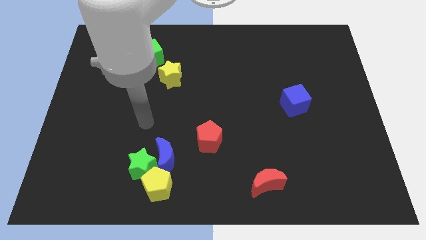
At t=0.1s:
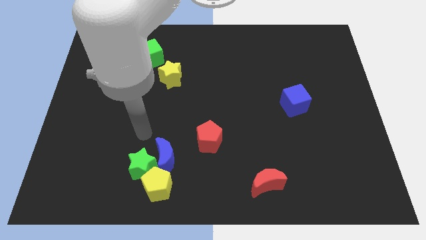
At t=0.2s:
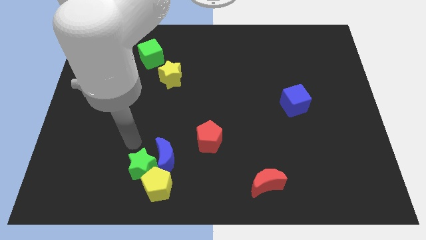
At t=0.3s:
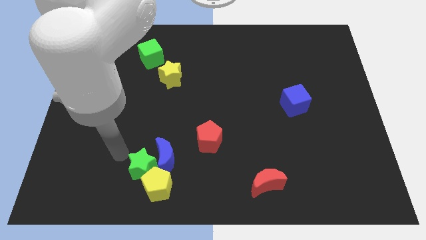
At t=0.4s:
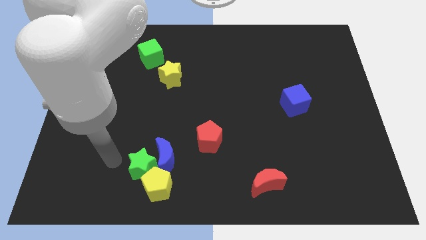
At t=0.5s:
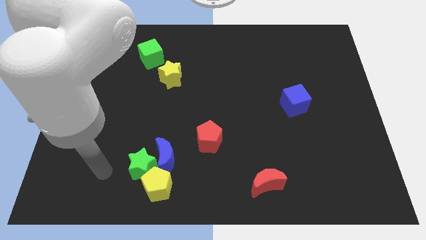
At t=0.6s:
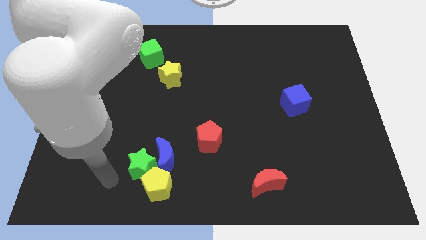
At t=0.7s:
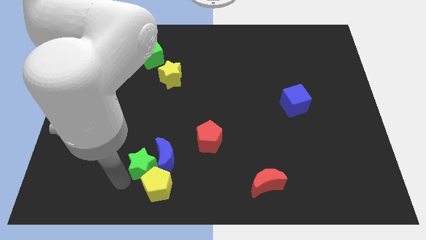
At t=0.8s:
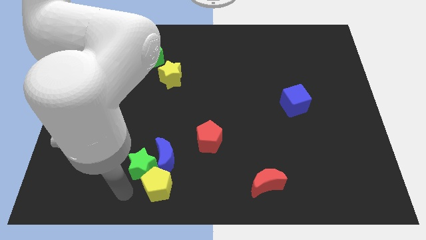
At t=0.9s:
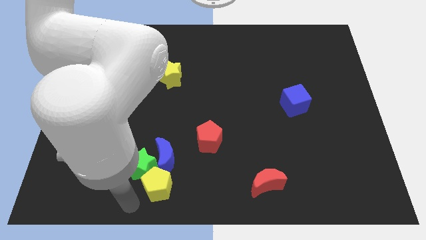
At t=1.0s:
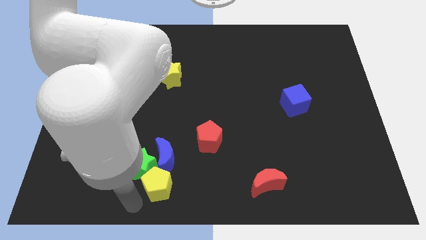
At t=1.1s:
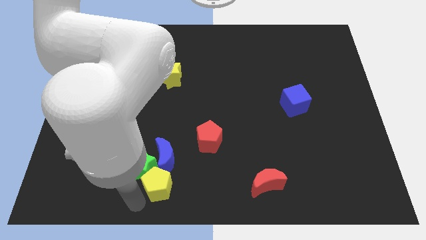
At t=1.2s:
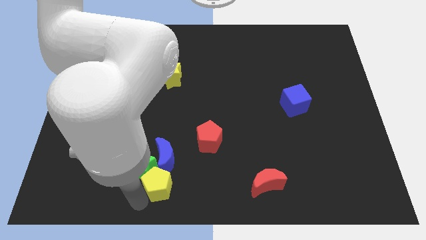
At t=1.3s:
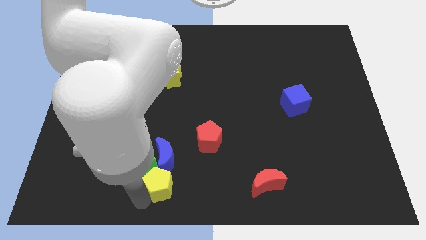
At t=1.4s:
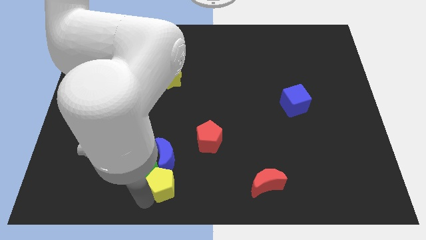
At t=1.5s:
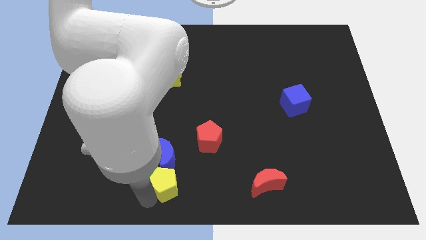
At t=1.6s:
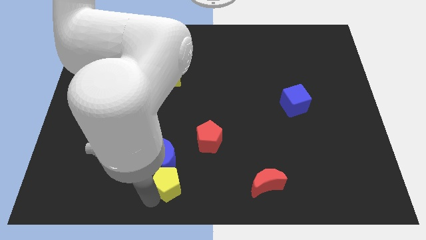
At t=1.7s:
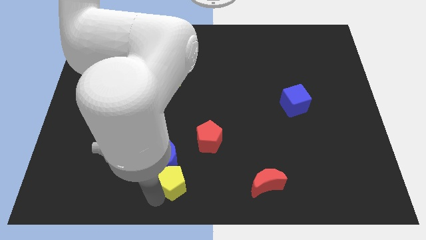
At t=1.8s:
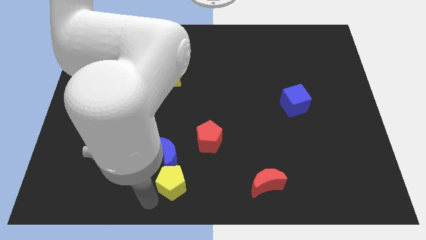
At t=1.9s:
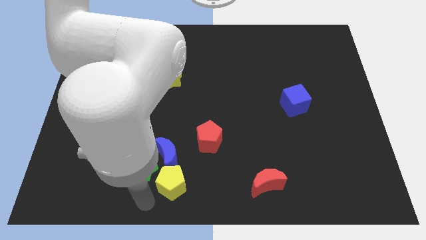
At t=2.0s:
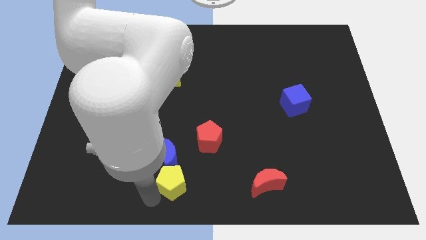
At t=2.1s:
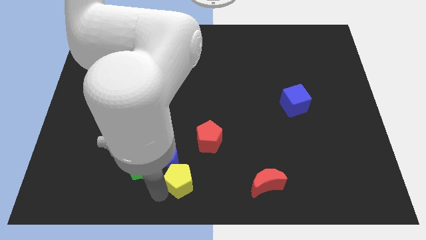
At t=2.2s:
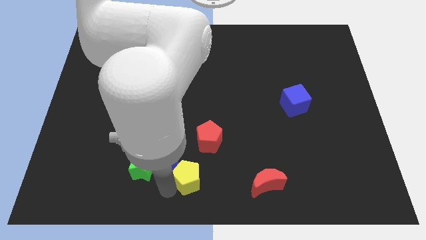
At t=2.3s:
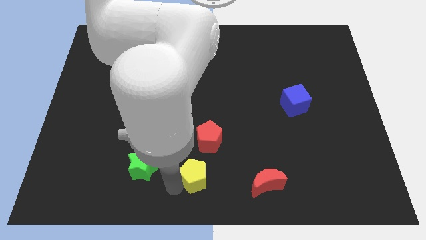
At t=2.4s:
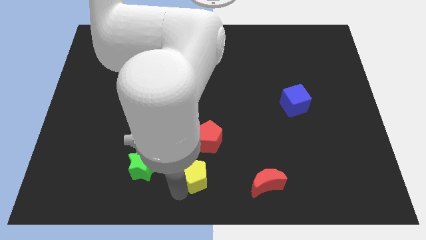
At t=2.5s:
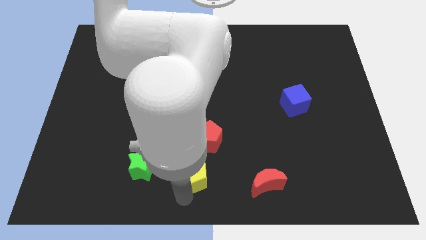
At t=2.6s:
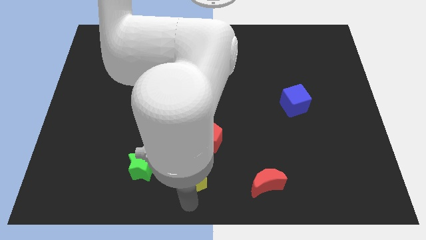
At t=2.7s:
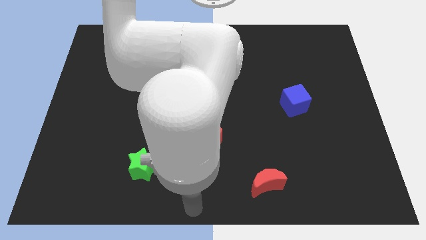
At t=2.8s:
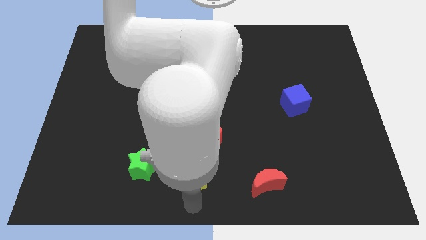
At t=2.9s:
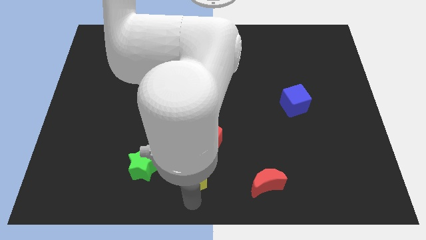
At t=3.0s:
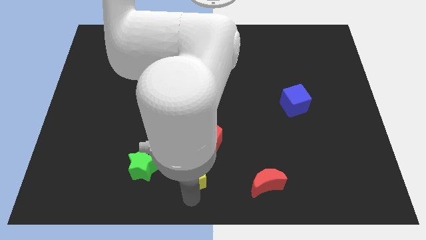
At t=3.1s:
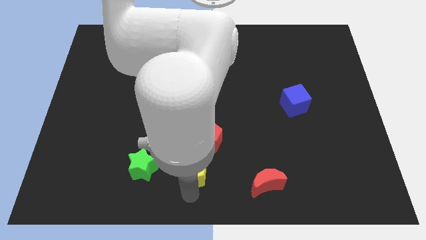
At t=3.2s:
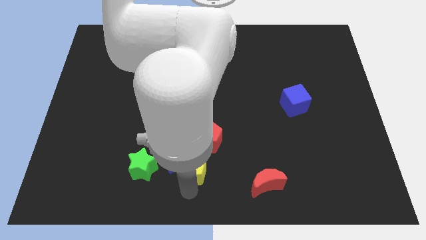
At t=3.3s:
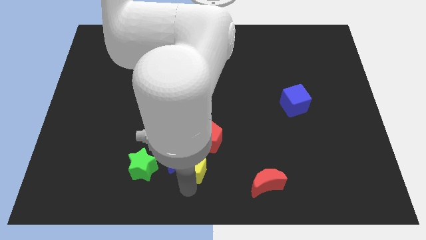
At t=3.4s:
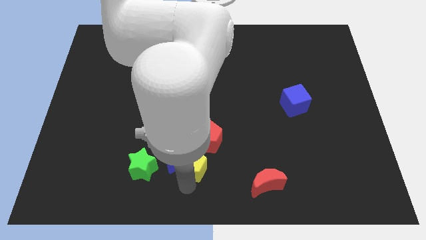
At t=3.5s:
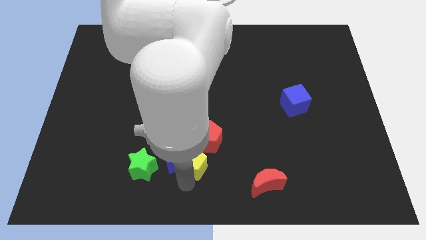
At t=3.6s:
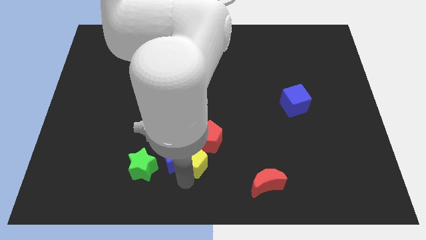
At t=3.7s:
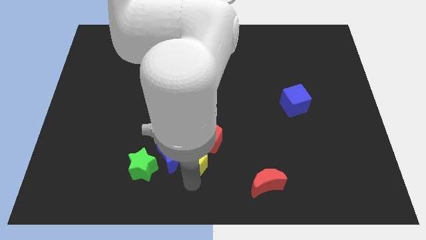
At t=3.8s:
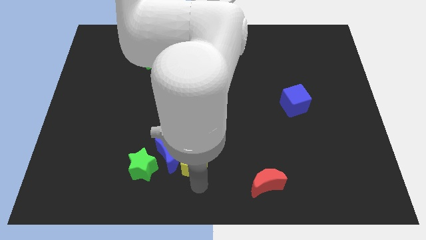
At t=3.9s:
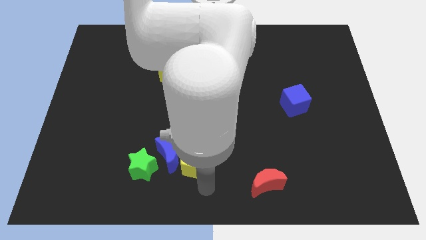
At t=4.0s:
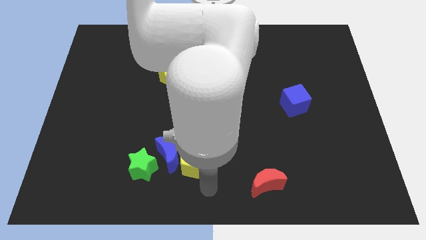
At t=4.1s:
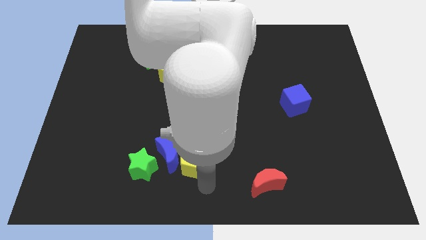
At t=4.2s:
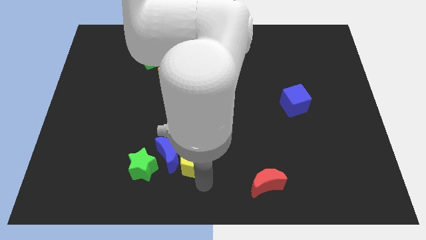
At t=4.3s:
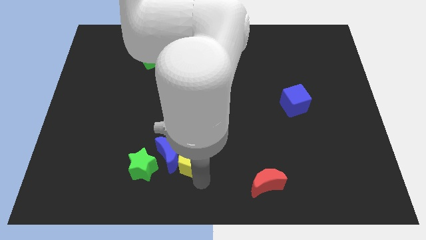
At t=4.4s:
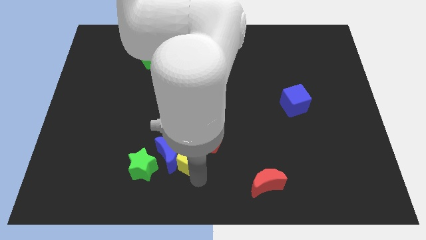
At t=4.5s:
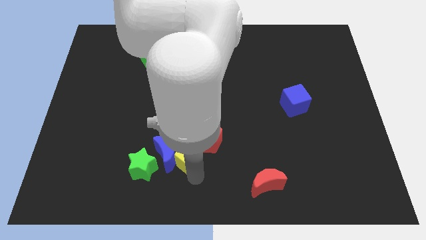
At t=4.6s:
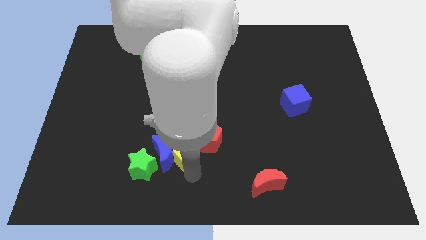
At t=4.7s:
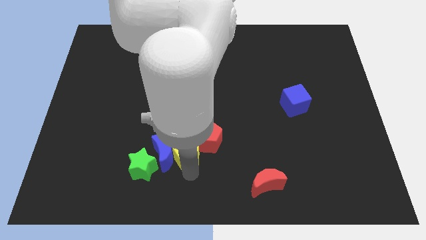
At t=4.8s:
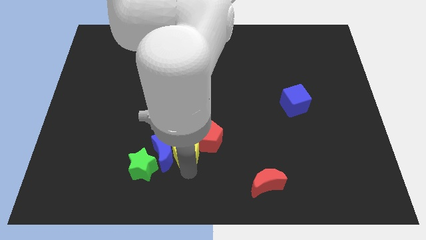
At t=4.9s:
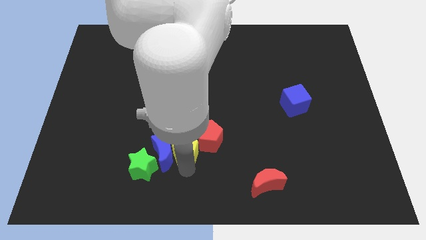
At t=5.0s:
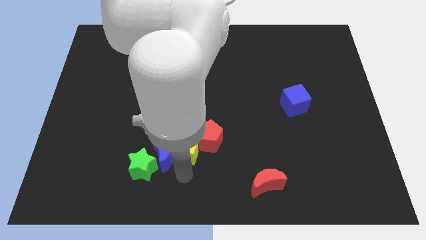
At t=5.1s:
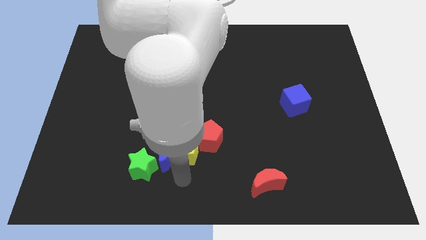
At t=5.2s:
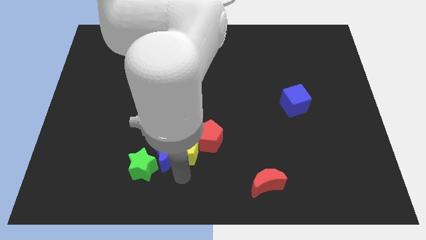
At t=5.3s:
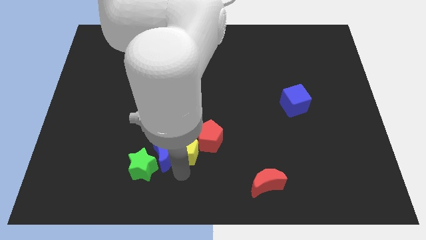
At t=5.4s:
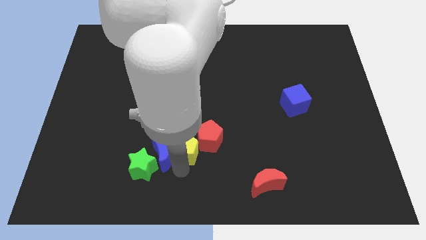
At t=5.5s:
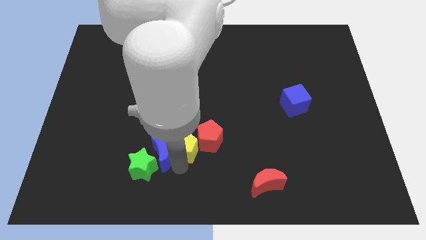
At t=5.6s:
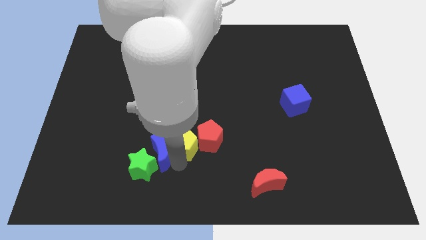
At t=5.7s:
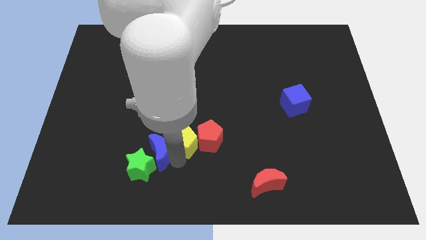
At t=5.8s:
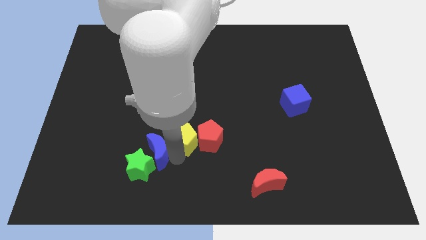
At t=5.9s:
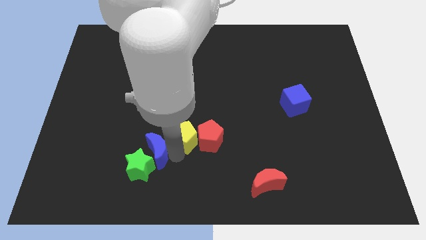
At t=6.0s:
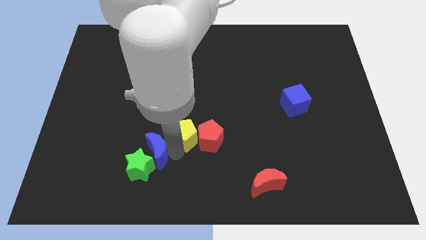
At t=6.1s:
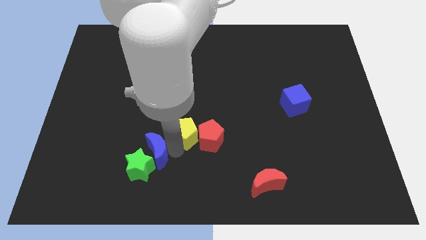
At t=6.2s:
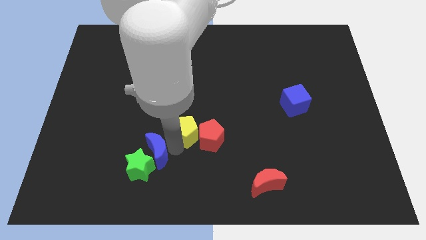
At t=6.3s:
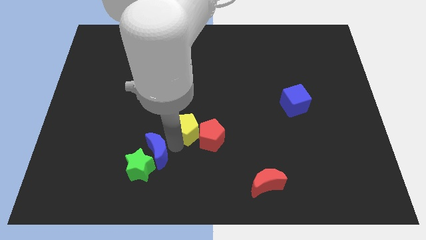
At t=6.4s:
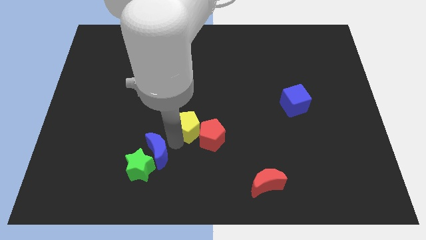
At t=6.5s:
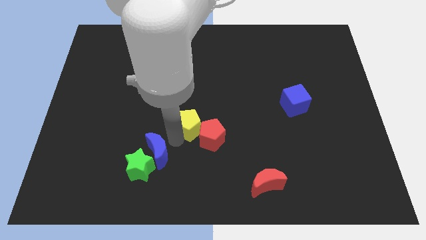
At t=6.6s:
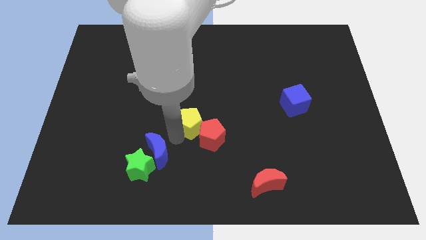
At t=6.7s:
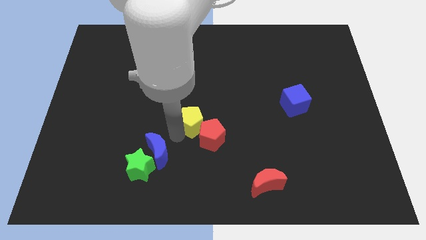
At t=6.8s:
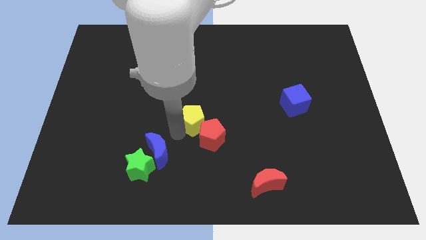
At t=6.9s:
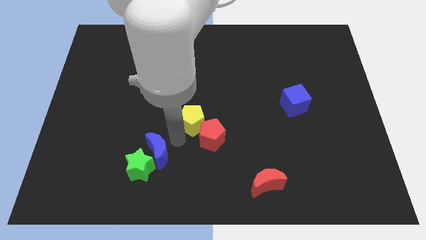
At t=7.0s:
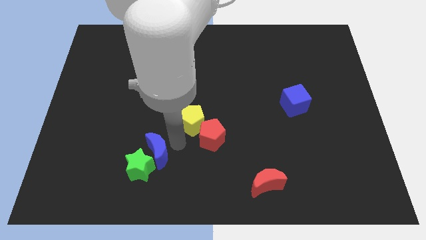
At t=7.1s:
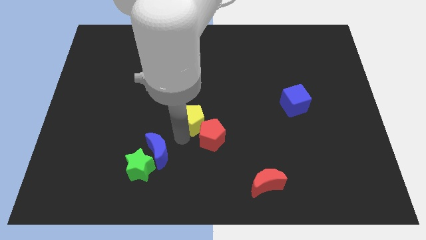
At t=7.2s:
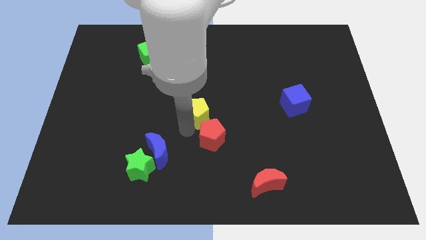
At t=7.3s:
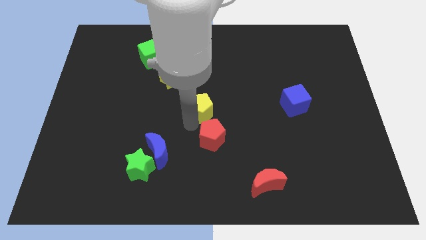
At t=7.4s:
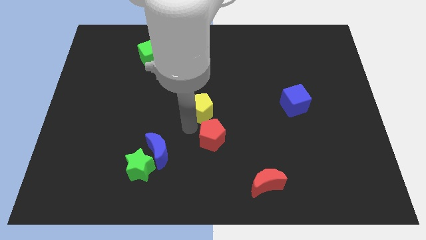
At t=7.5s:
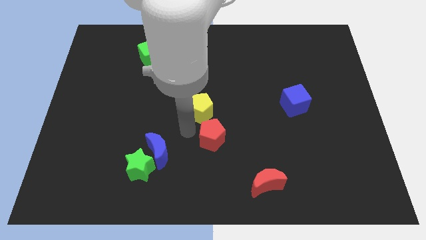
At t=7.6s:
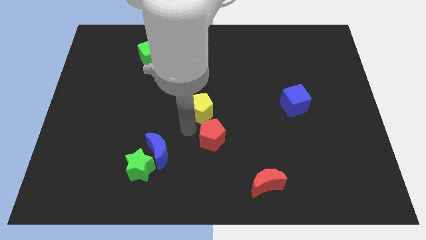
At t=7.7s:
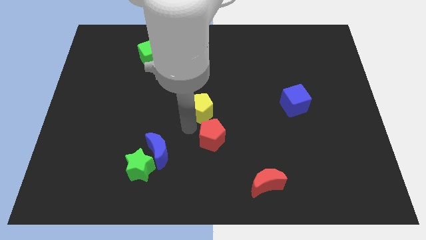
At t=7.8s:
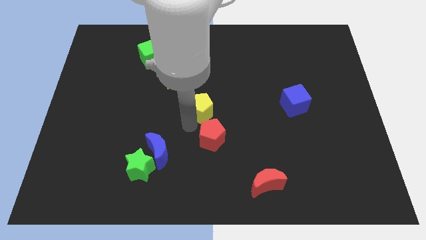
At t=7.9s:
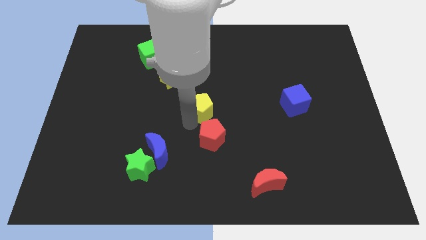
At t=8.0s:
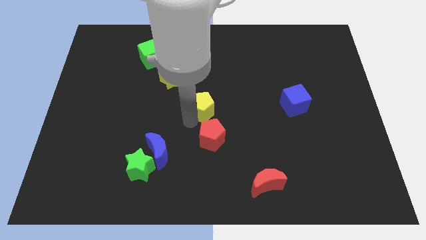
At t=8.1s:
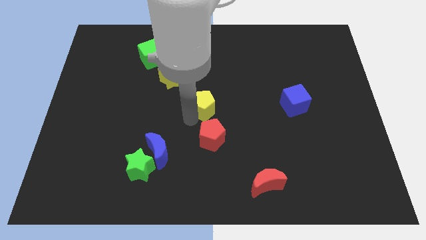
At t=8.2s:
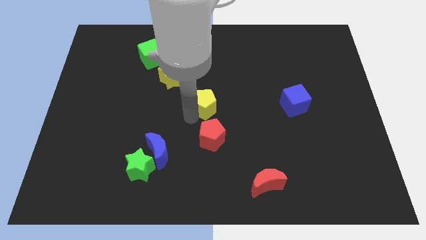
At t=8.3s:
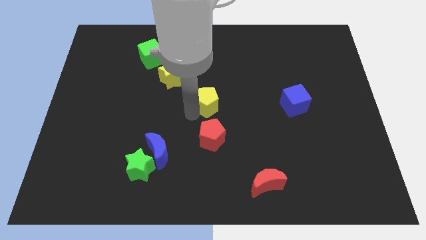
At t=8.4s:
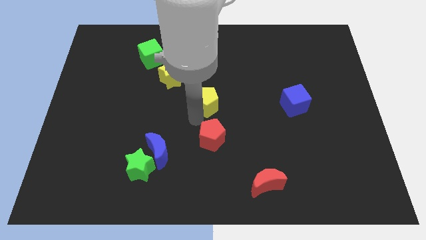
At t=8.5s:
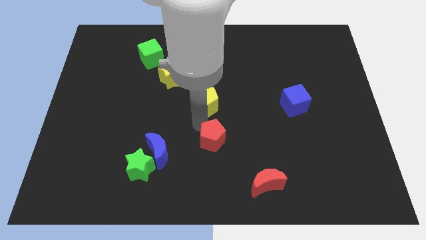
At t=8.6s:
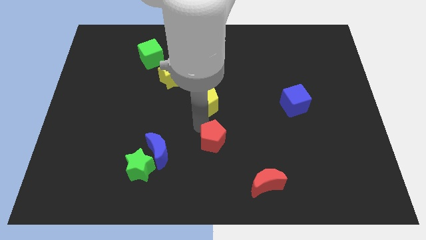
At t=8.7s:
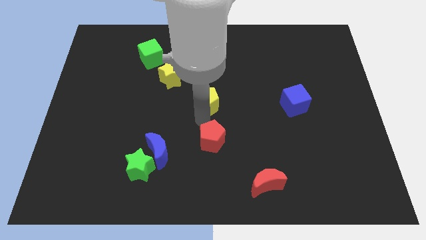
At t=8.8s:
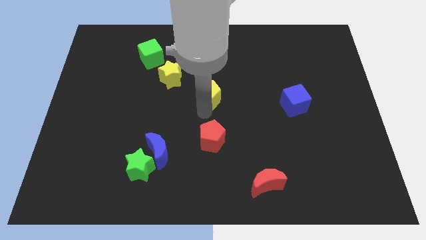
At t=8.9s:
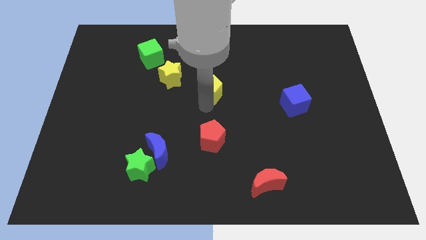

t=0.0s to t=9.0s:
move the yellow pentagon just right of the yellow star
